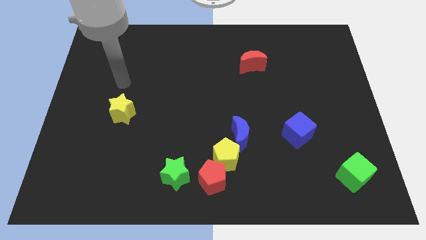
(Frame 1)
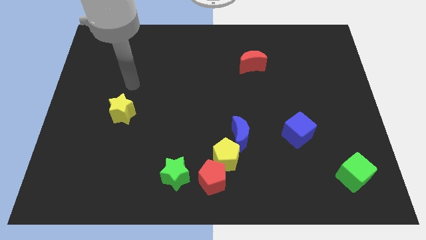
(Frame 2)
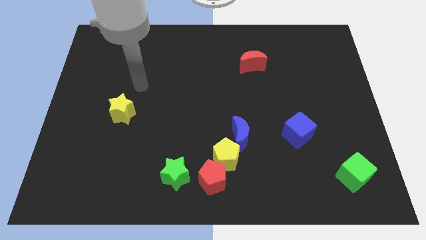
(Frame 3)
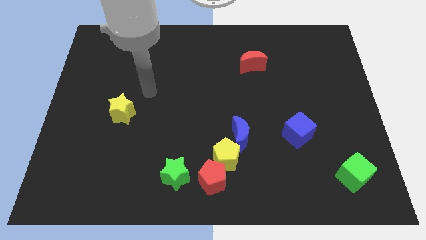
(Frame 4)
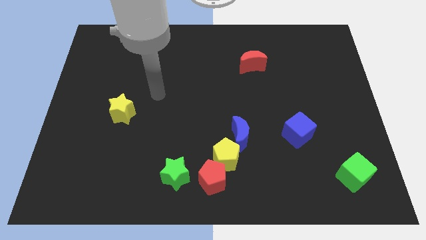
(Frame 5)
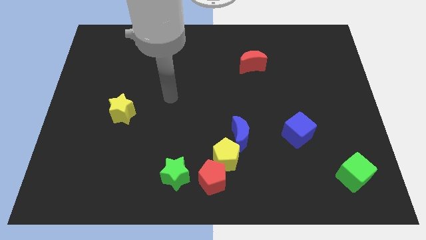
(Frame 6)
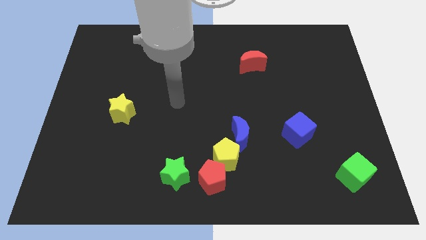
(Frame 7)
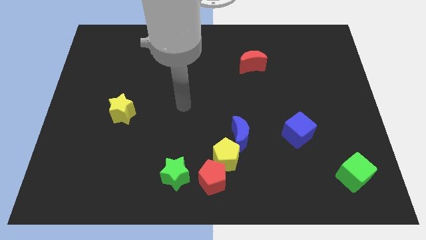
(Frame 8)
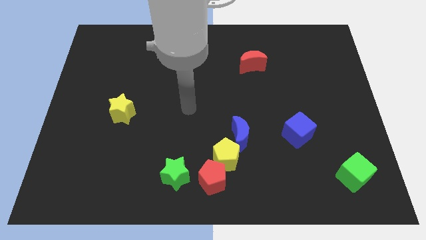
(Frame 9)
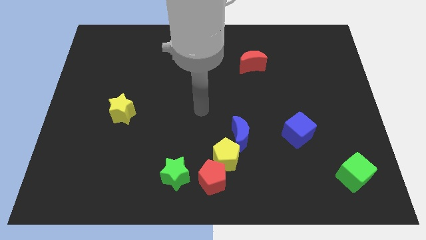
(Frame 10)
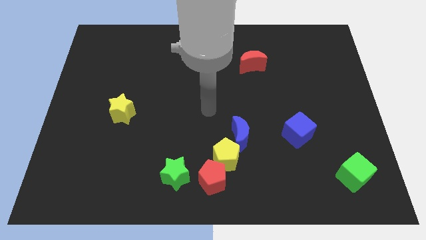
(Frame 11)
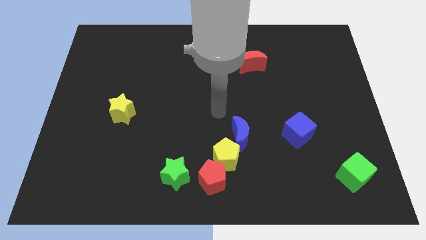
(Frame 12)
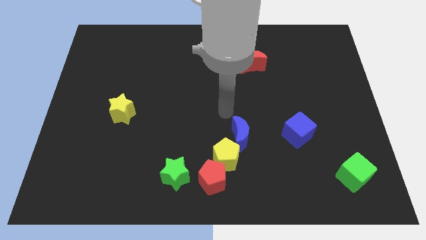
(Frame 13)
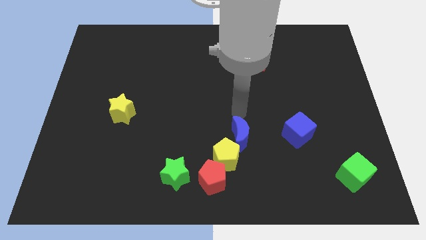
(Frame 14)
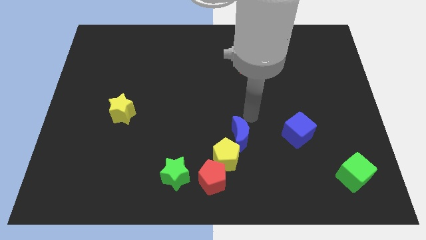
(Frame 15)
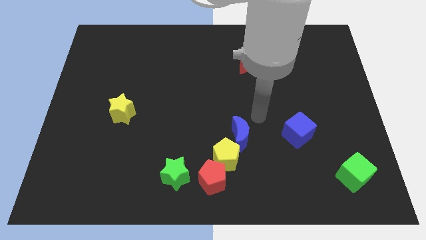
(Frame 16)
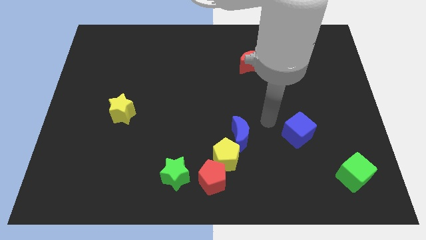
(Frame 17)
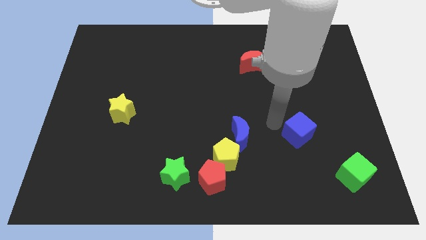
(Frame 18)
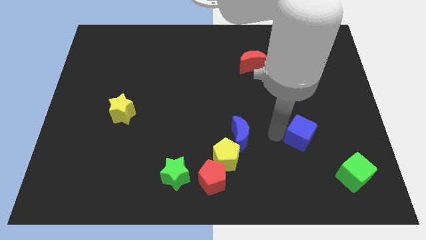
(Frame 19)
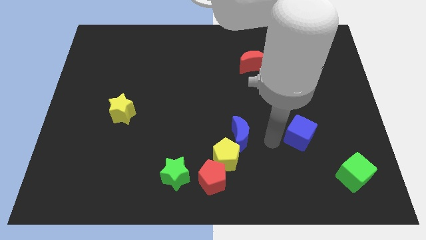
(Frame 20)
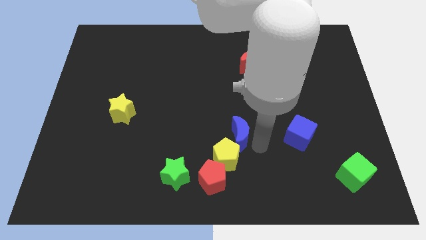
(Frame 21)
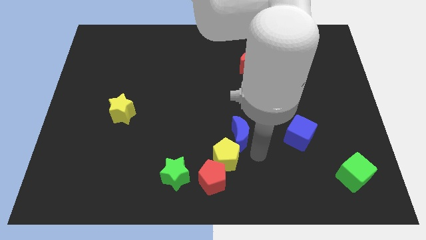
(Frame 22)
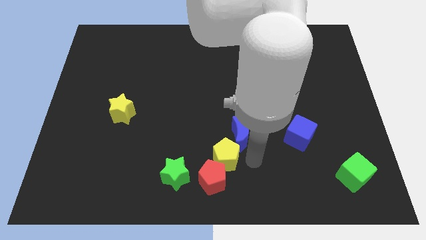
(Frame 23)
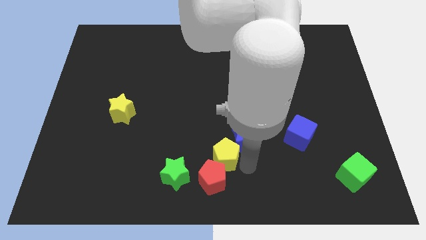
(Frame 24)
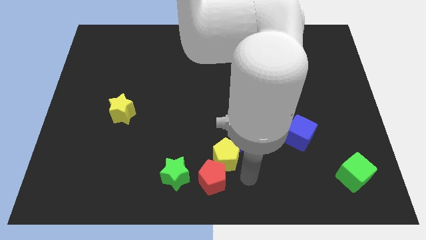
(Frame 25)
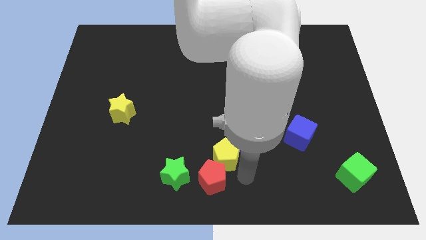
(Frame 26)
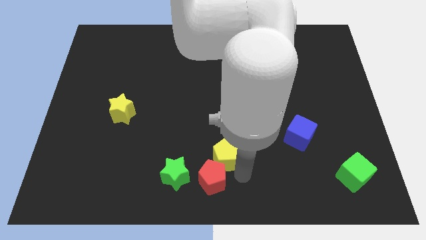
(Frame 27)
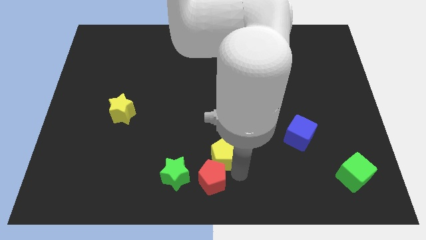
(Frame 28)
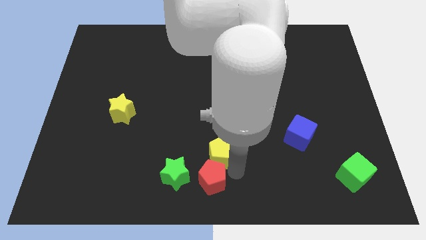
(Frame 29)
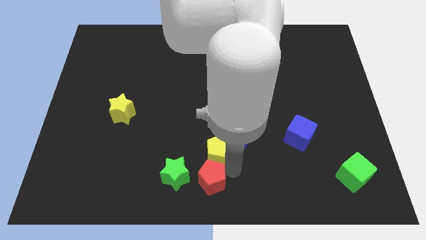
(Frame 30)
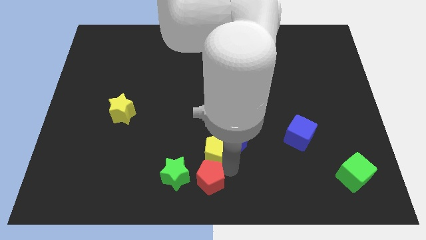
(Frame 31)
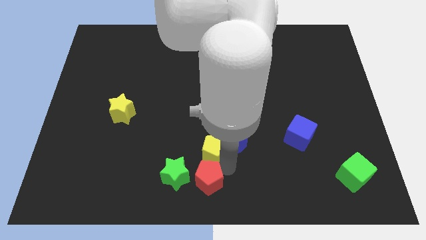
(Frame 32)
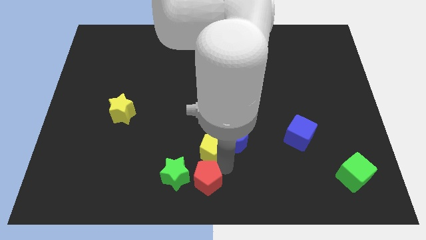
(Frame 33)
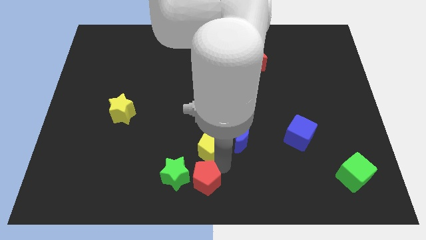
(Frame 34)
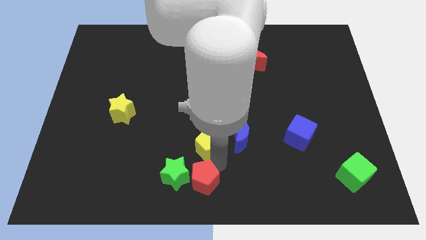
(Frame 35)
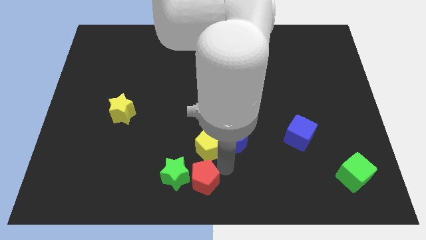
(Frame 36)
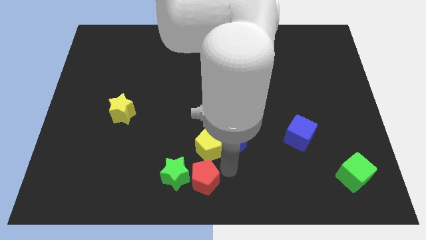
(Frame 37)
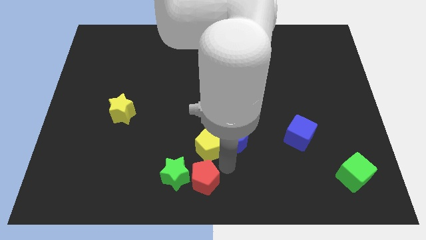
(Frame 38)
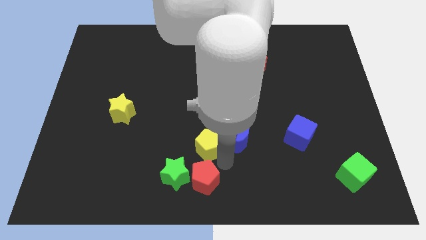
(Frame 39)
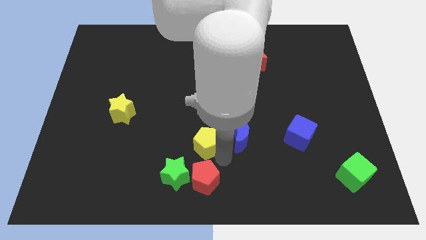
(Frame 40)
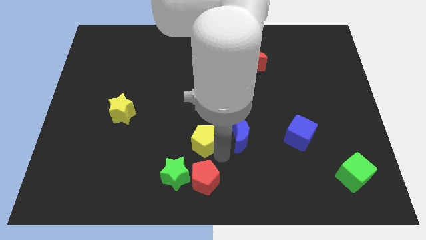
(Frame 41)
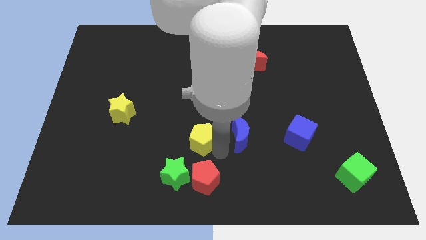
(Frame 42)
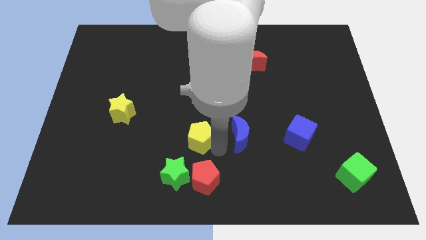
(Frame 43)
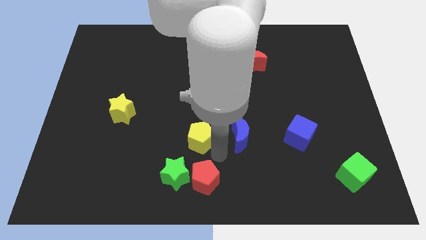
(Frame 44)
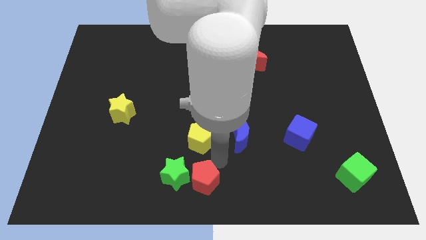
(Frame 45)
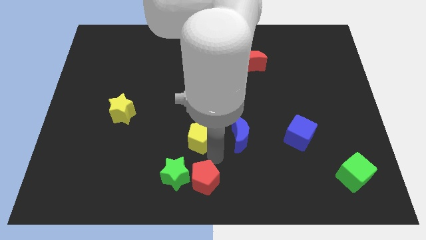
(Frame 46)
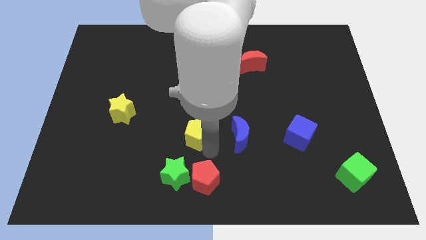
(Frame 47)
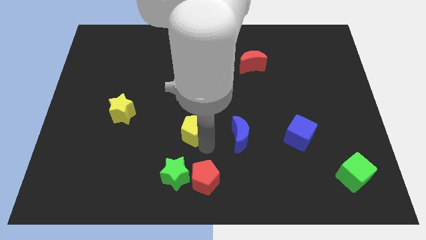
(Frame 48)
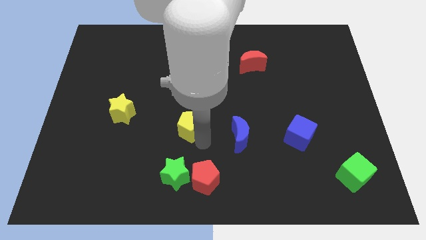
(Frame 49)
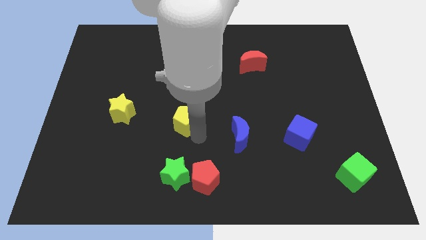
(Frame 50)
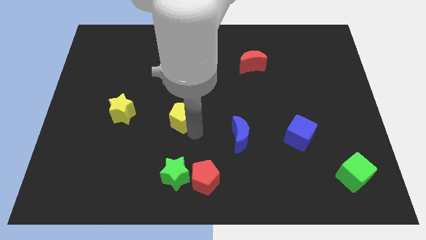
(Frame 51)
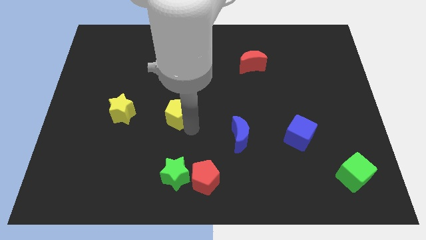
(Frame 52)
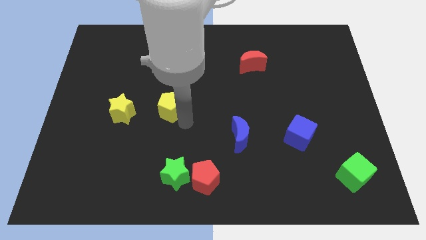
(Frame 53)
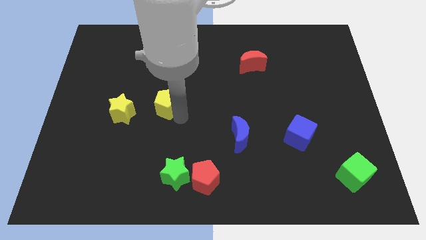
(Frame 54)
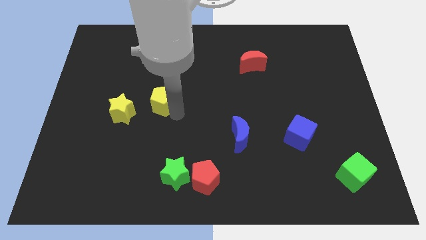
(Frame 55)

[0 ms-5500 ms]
push the yellow pentagon diagonally upwards and left

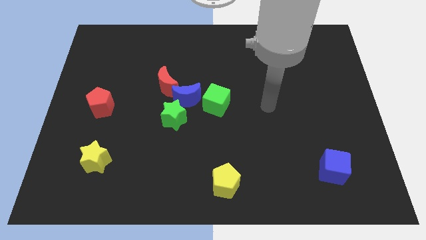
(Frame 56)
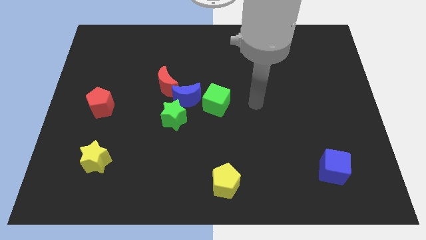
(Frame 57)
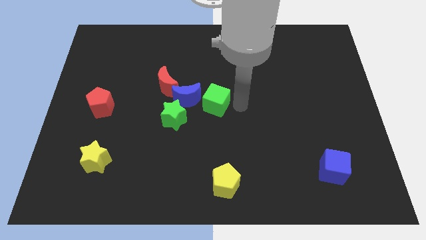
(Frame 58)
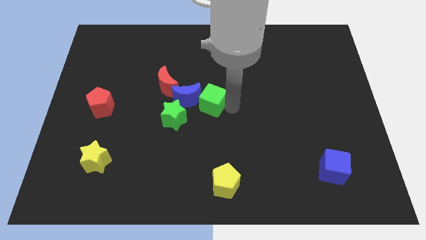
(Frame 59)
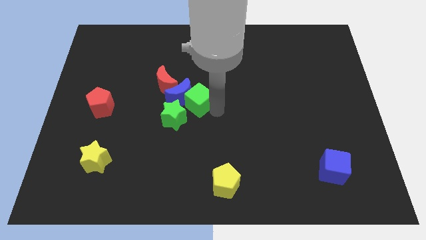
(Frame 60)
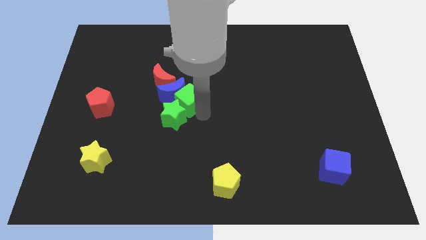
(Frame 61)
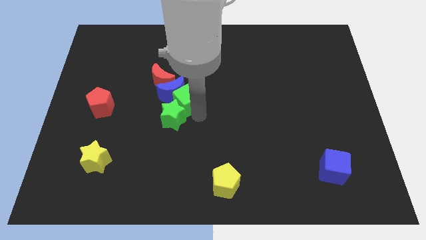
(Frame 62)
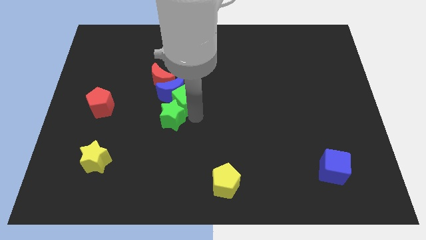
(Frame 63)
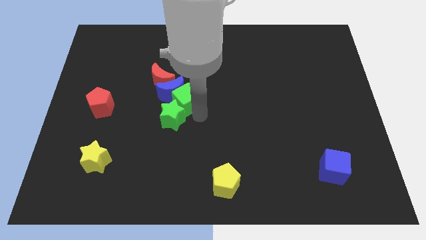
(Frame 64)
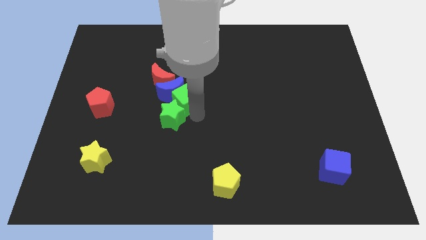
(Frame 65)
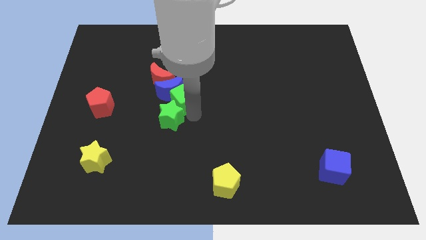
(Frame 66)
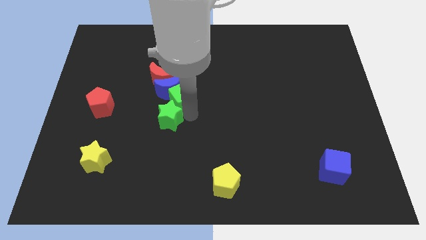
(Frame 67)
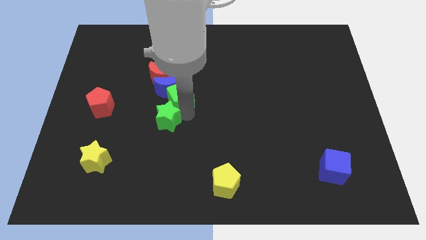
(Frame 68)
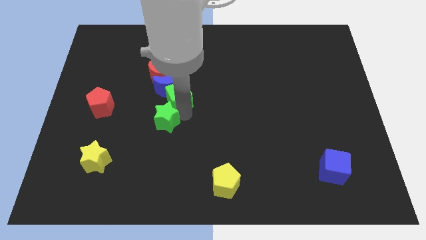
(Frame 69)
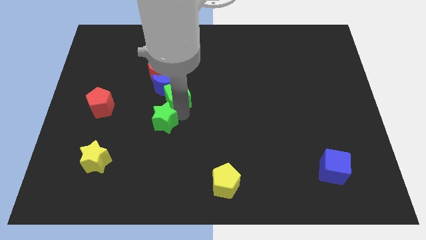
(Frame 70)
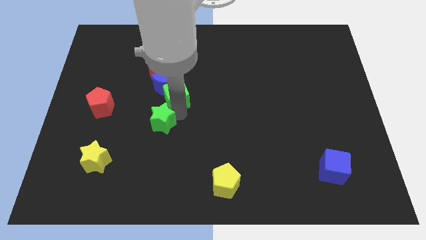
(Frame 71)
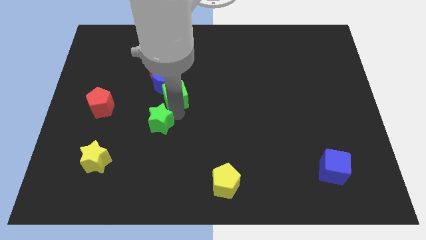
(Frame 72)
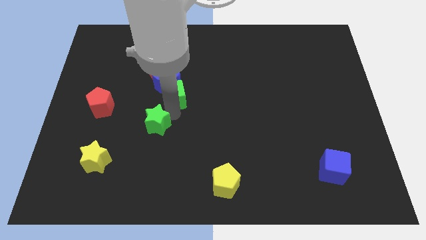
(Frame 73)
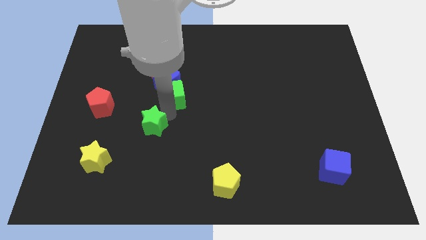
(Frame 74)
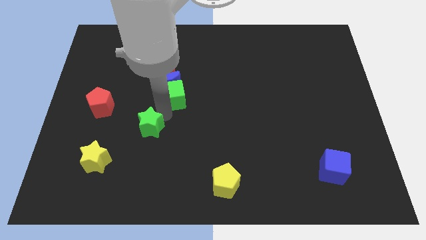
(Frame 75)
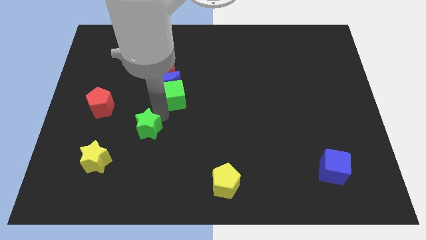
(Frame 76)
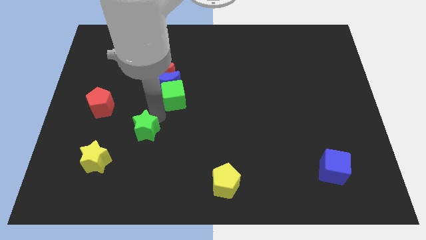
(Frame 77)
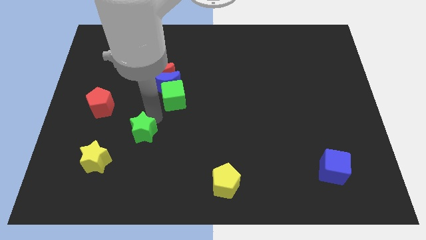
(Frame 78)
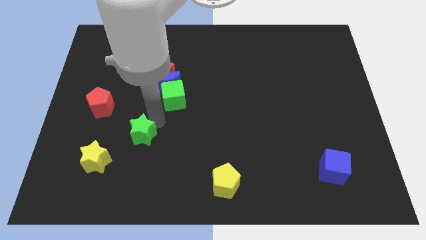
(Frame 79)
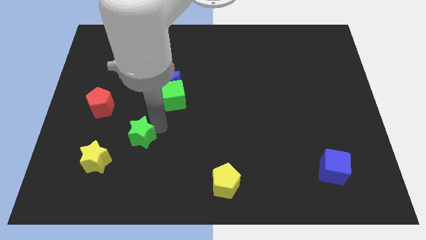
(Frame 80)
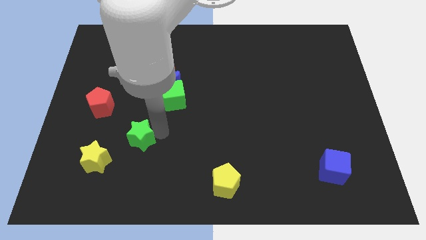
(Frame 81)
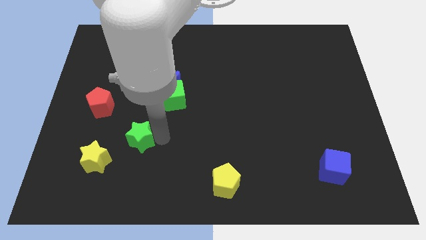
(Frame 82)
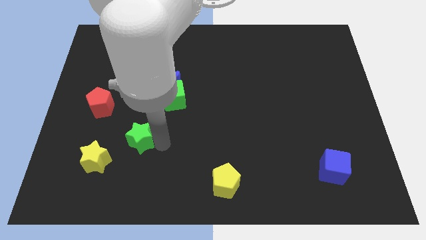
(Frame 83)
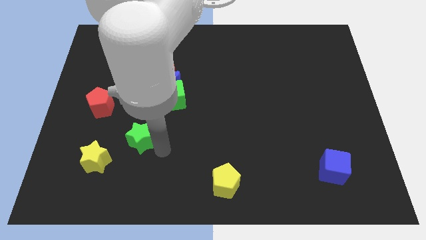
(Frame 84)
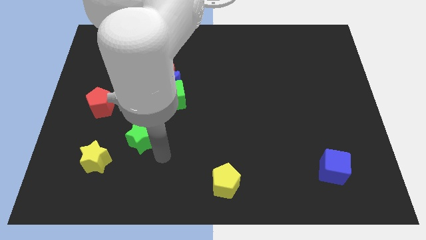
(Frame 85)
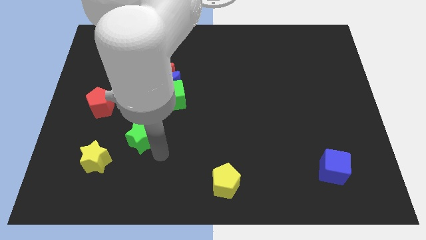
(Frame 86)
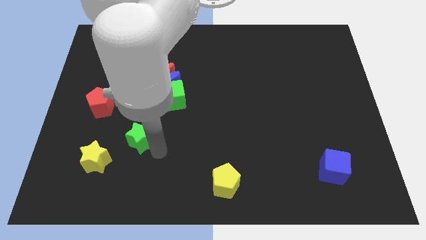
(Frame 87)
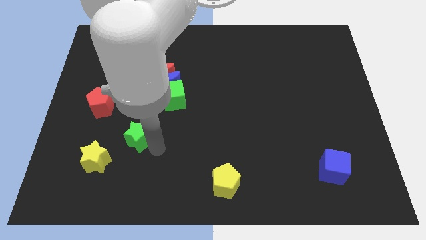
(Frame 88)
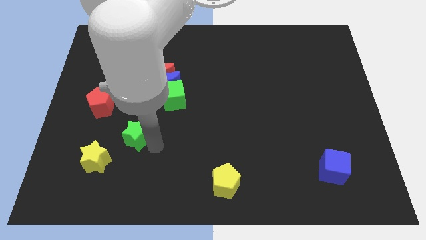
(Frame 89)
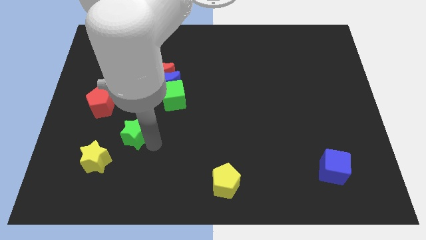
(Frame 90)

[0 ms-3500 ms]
slide the green star left a bit
